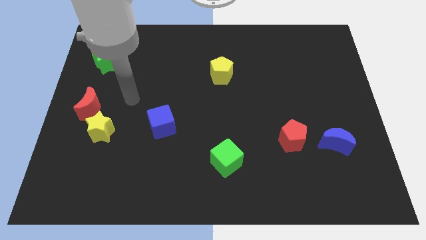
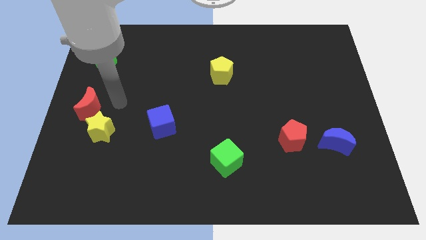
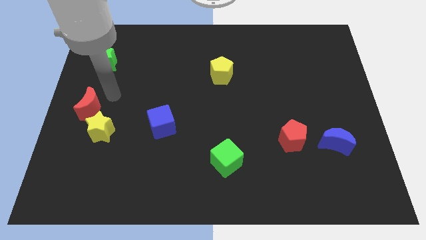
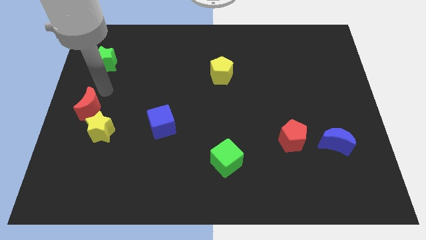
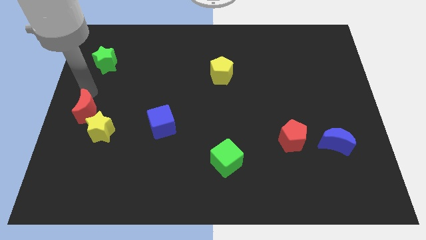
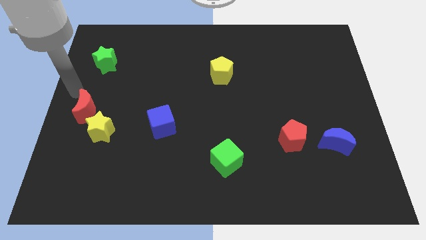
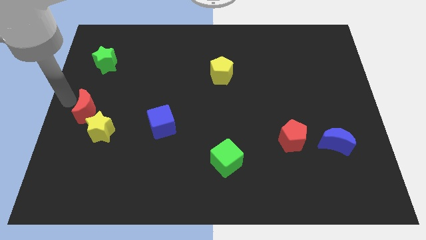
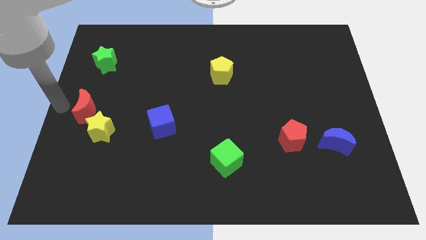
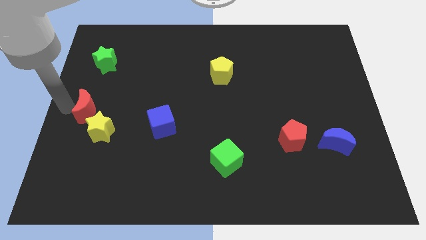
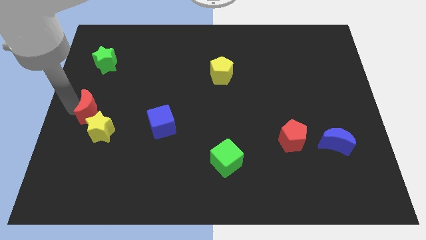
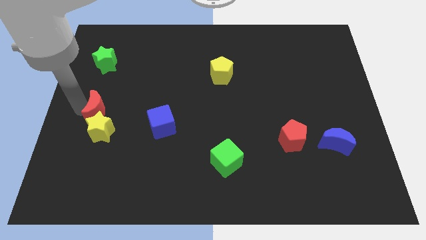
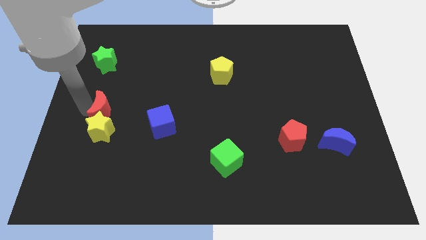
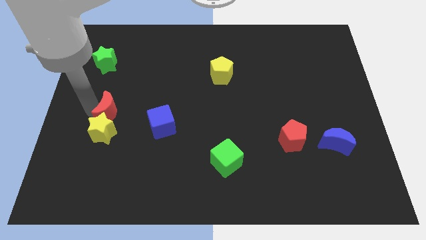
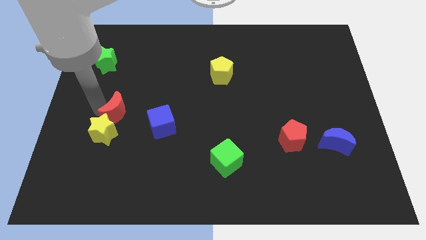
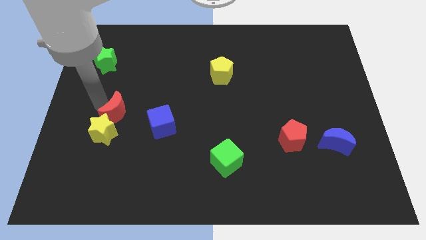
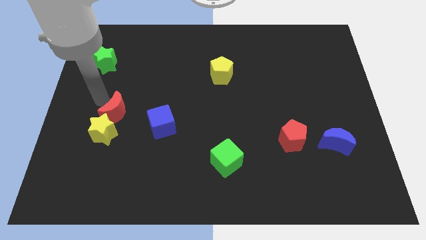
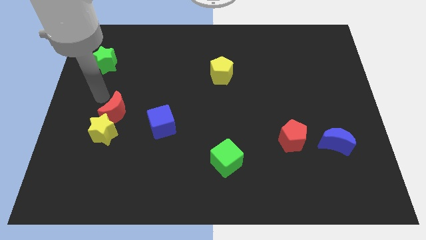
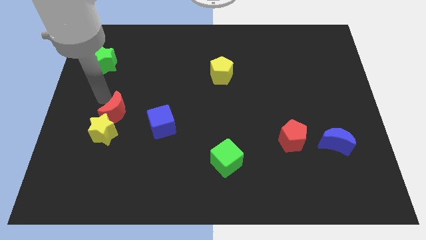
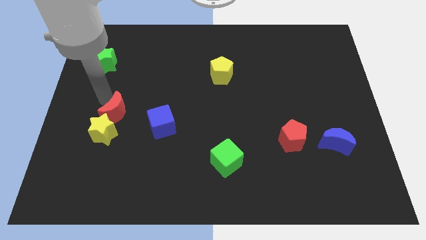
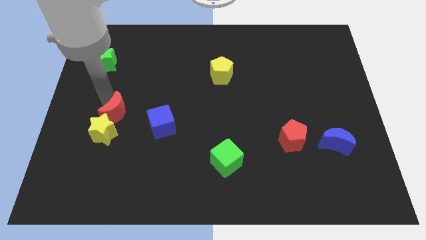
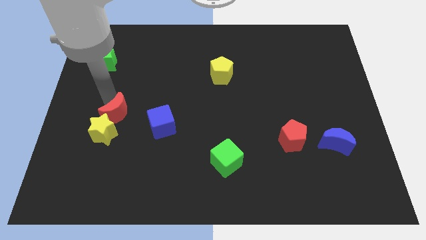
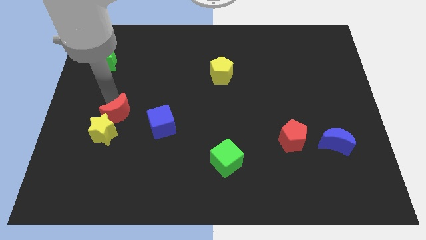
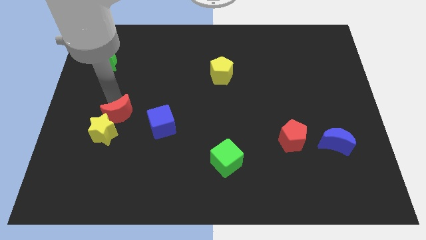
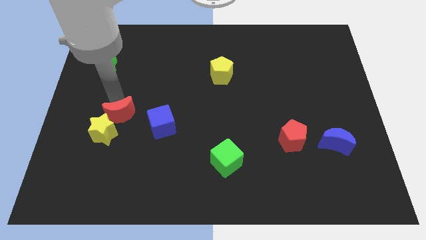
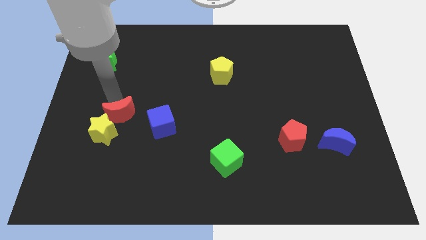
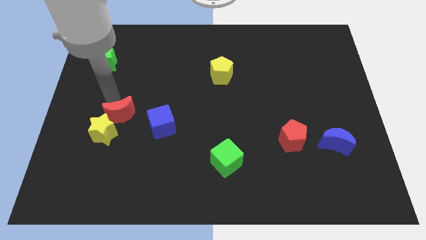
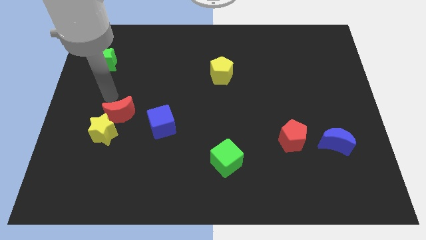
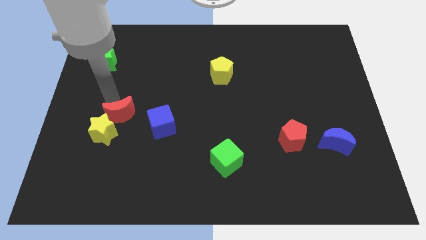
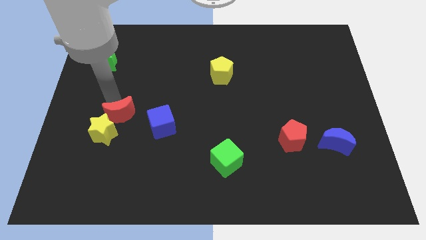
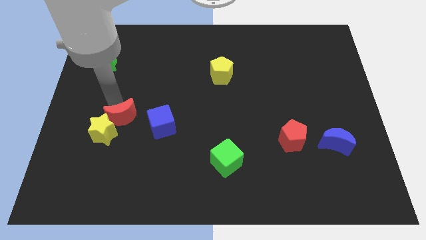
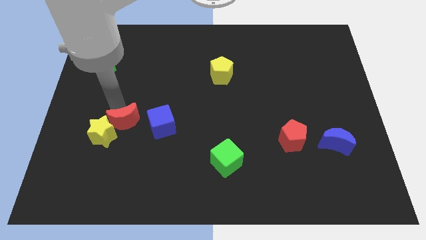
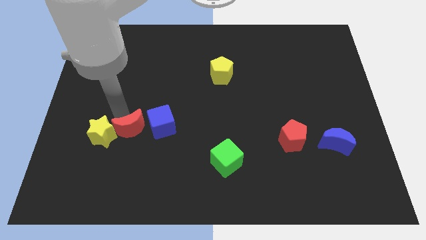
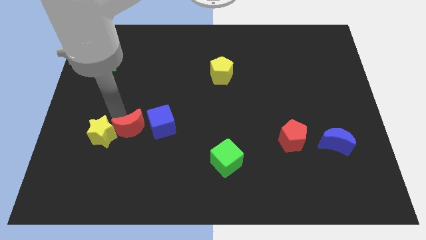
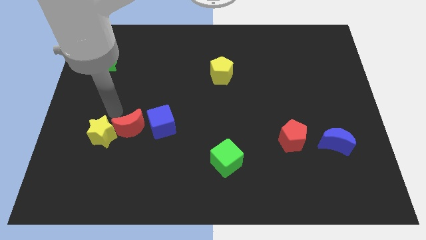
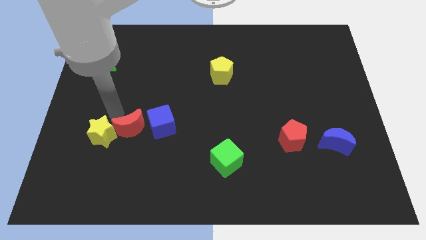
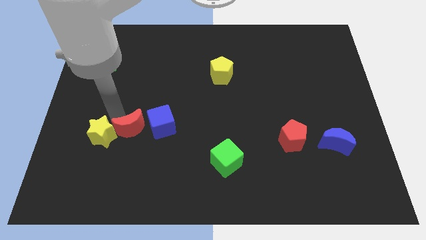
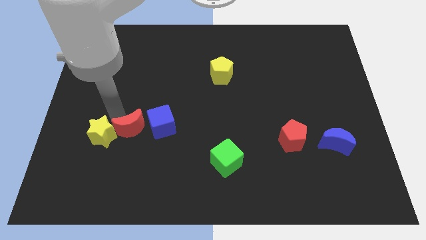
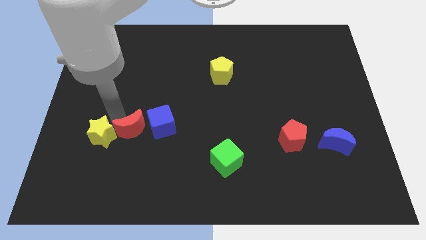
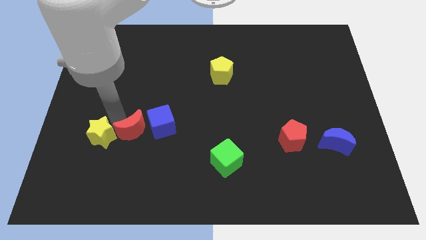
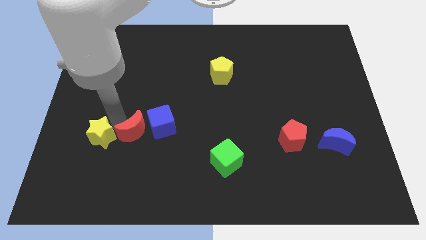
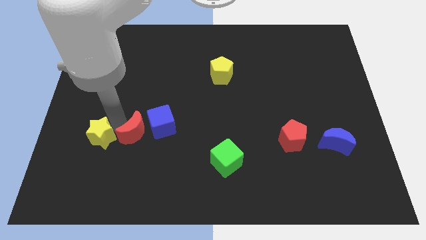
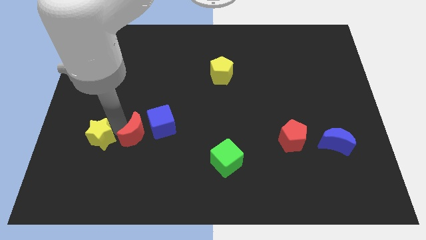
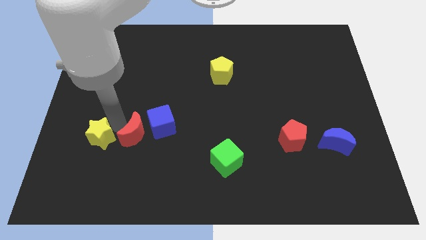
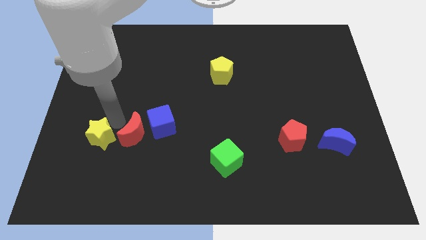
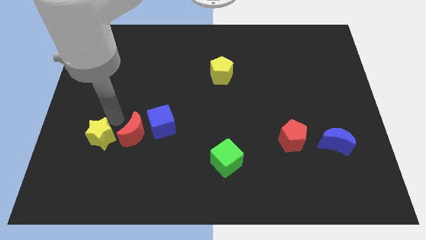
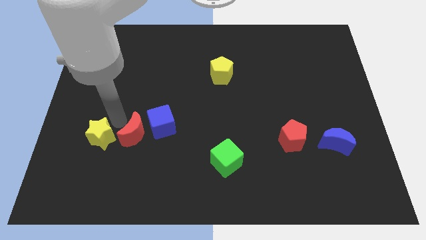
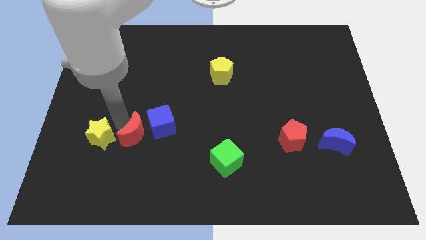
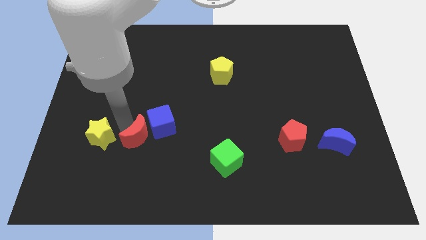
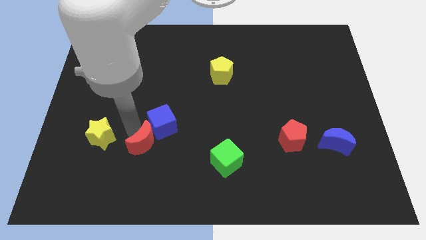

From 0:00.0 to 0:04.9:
move the red moon below the blue cube

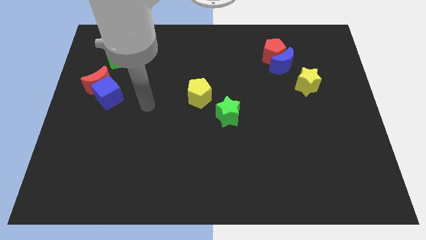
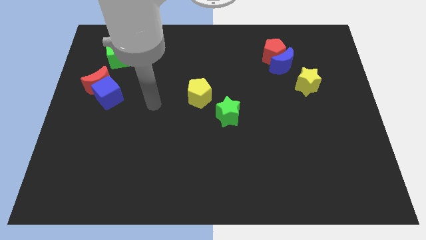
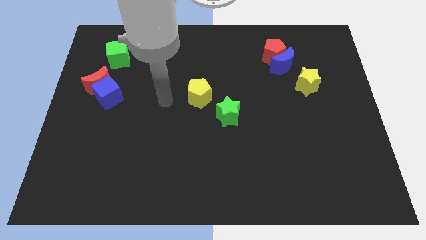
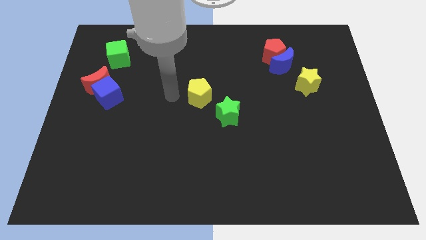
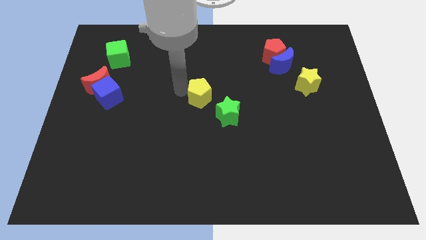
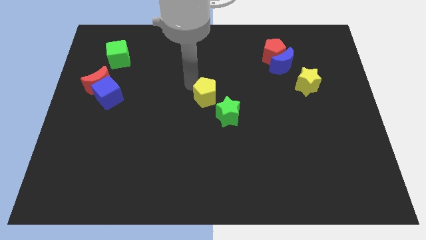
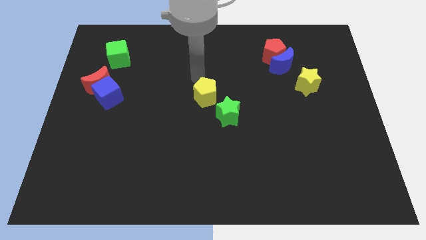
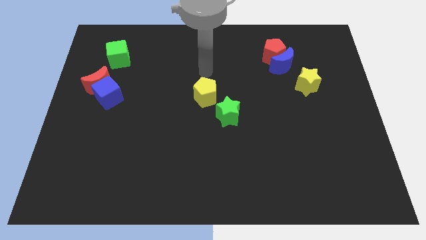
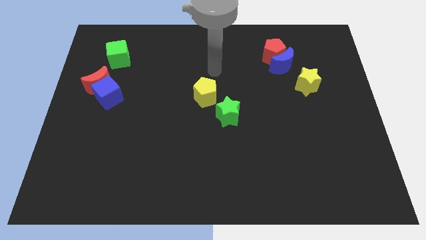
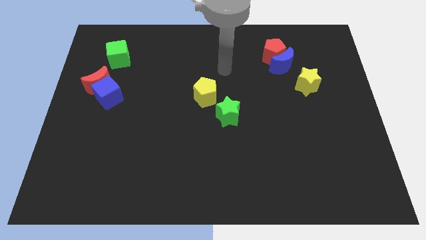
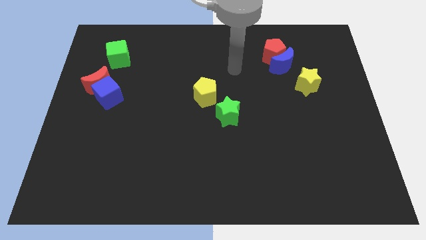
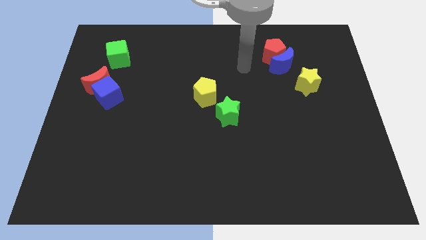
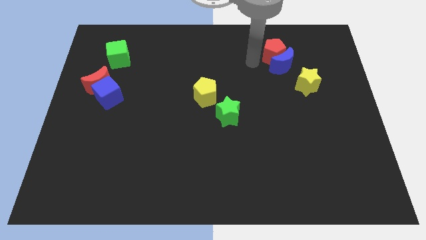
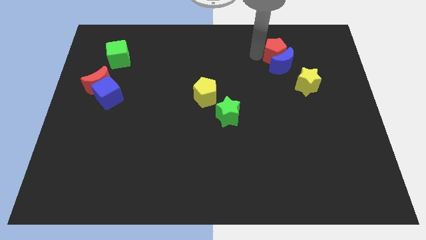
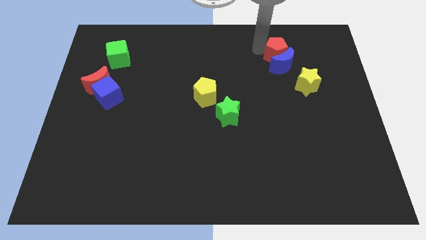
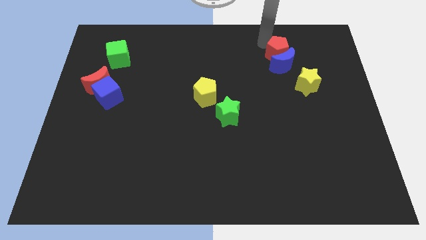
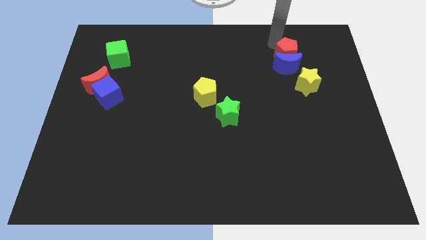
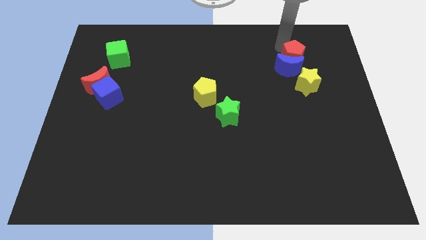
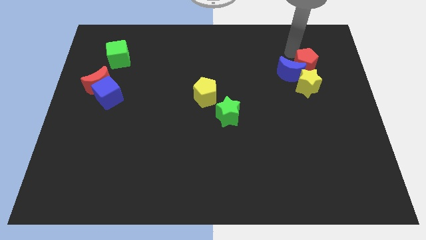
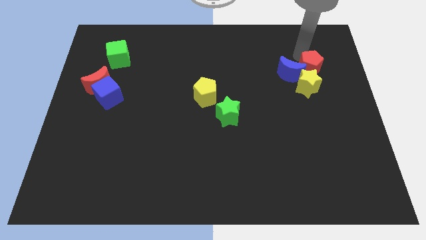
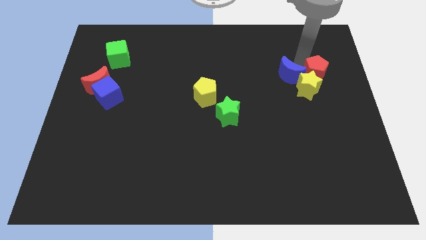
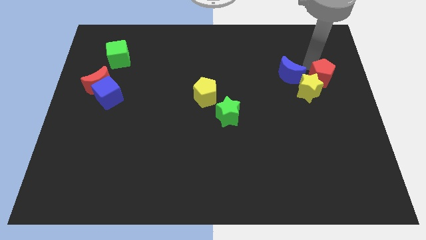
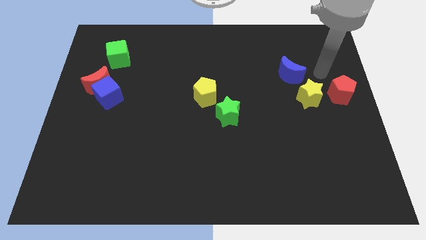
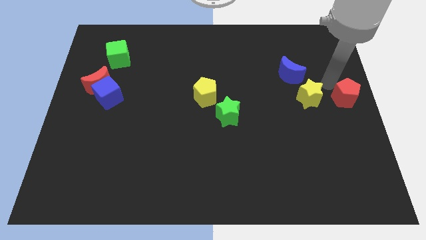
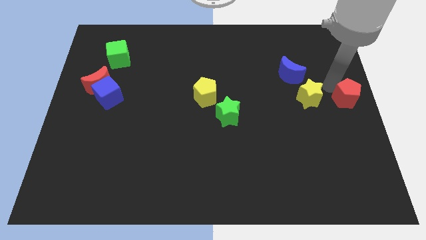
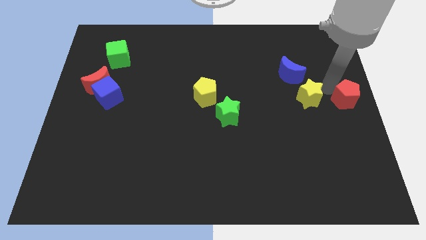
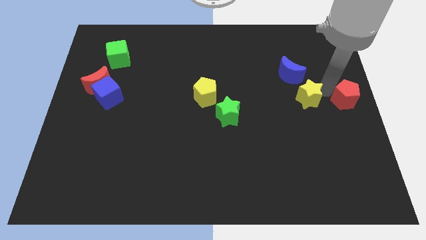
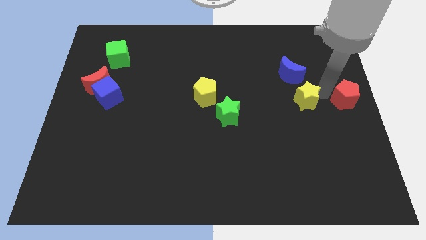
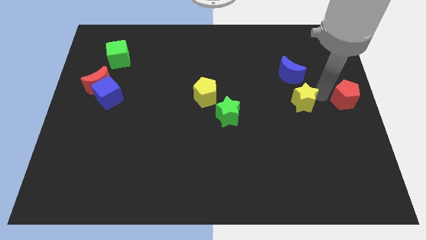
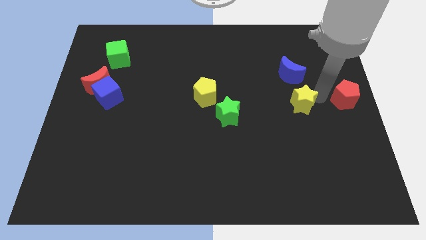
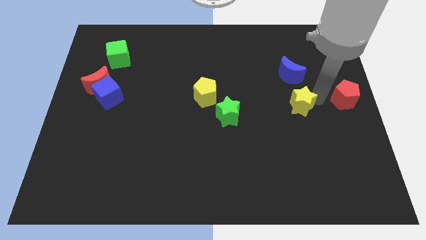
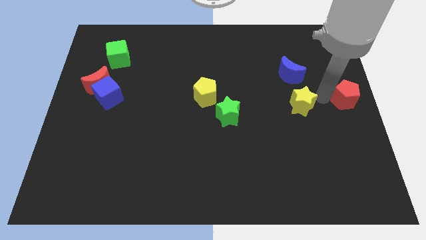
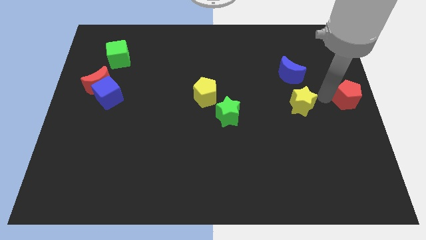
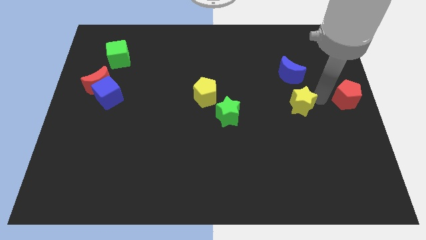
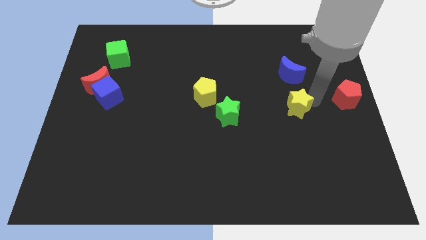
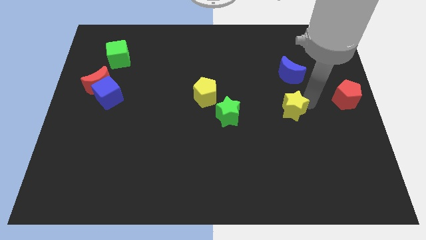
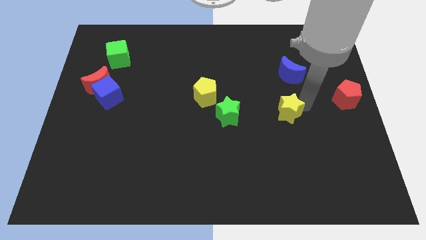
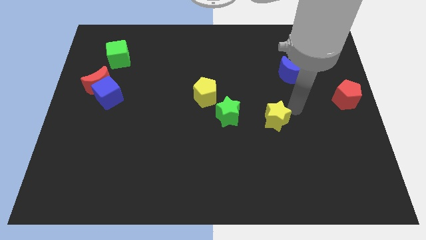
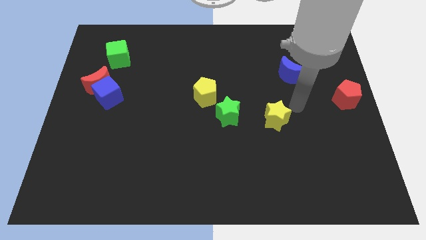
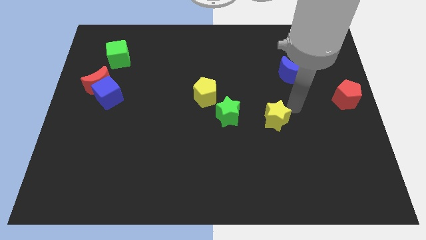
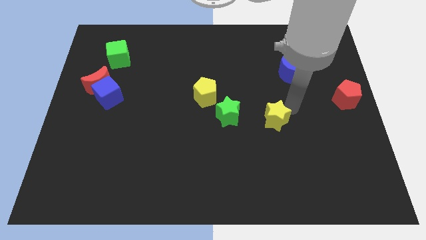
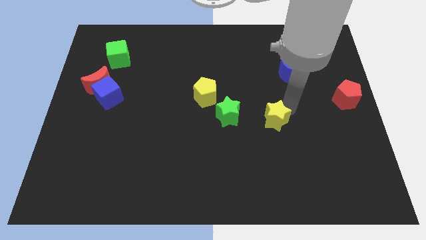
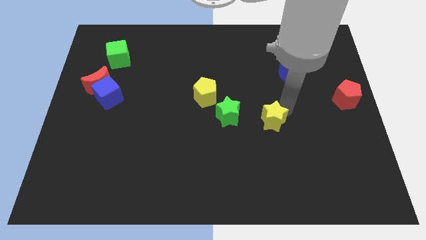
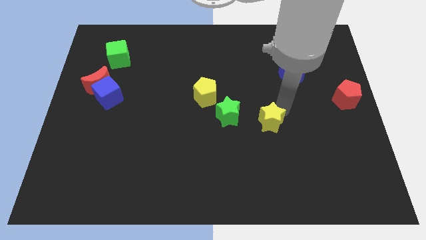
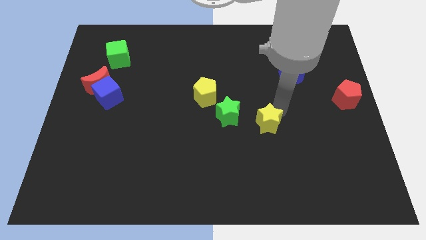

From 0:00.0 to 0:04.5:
push the yellow star to the bottom right side of the green star
